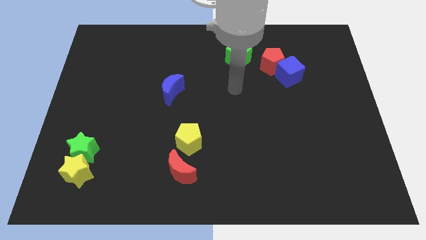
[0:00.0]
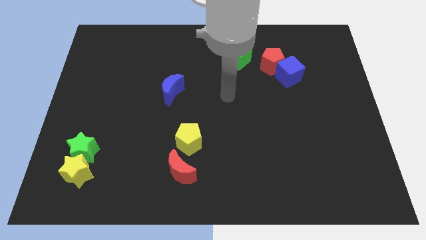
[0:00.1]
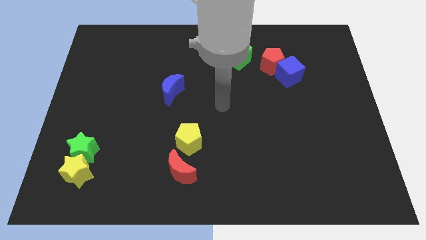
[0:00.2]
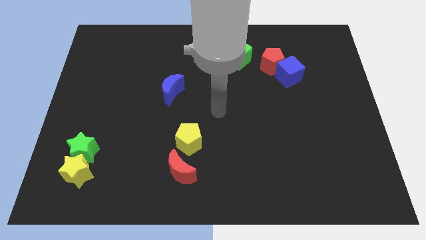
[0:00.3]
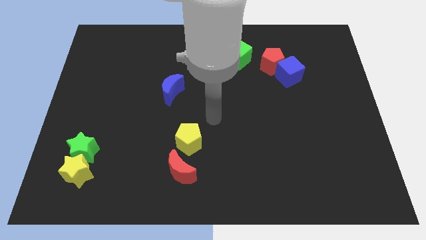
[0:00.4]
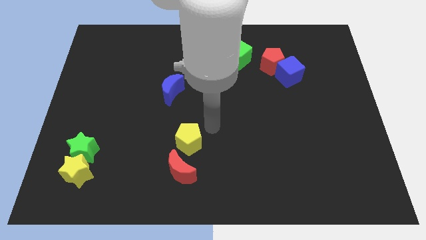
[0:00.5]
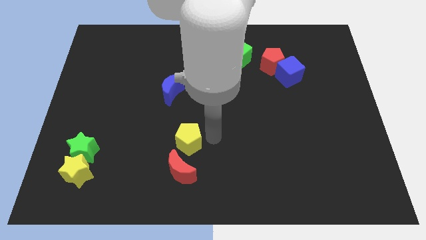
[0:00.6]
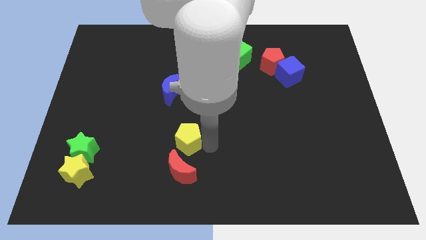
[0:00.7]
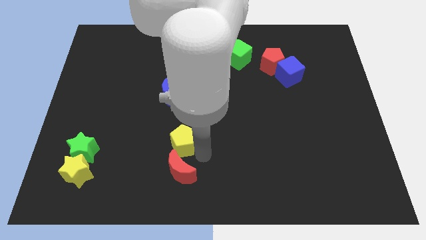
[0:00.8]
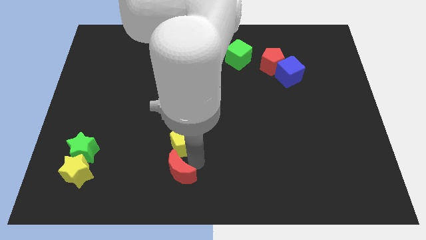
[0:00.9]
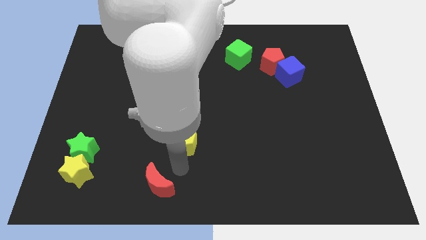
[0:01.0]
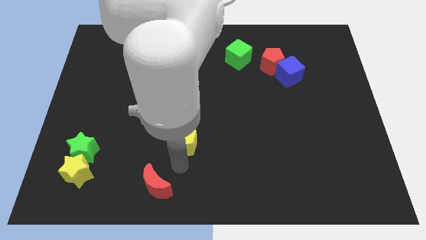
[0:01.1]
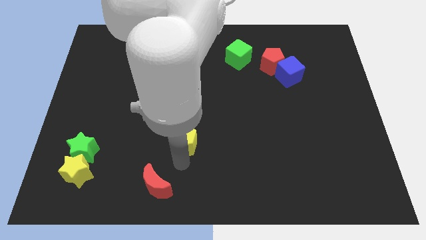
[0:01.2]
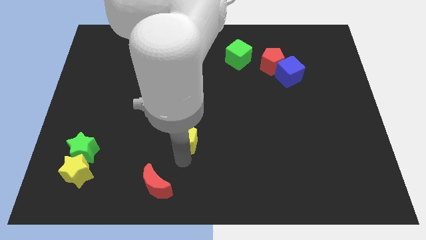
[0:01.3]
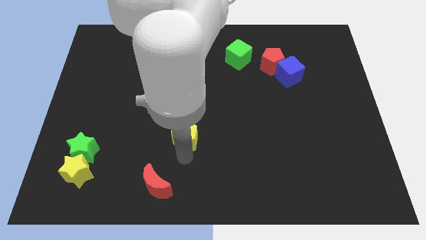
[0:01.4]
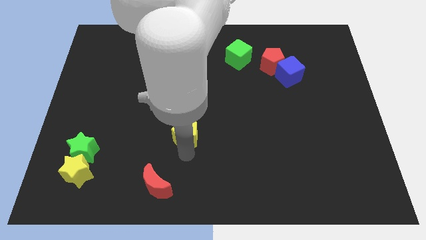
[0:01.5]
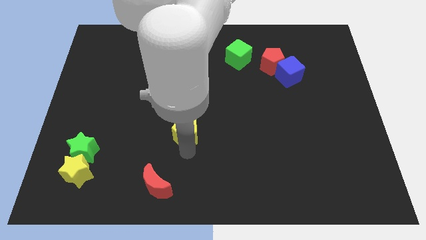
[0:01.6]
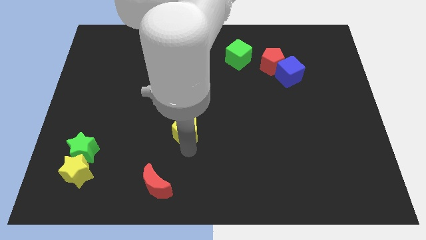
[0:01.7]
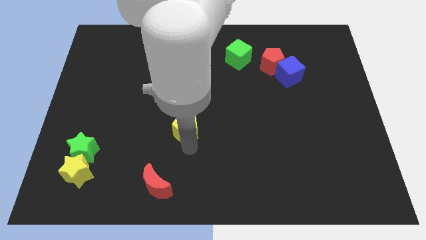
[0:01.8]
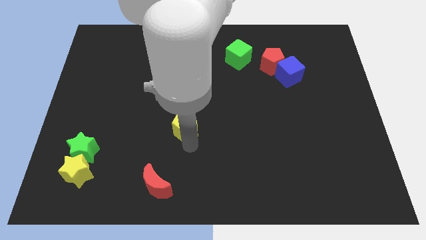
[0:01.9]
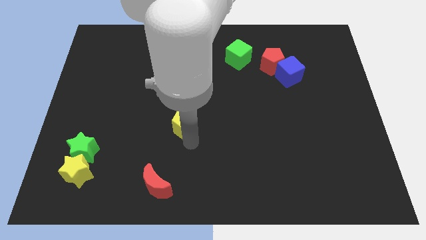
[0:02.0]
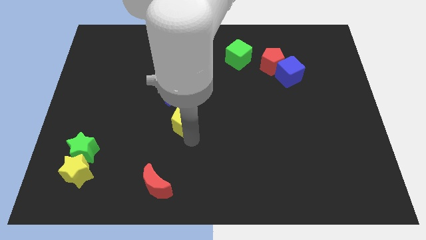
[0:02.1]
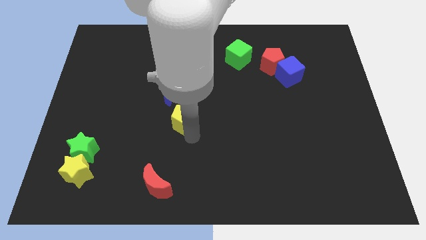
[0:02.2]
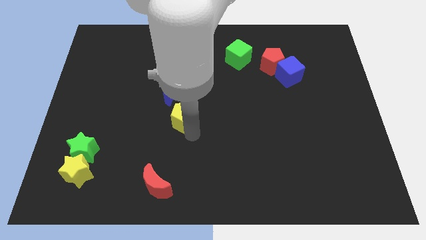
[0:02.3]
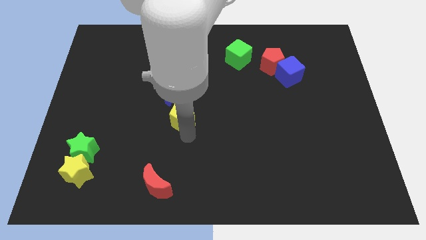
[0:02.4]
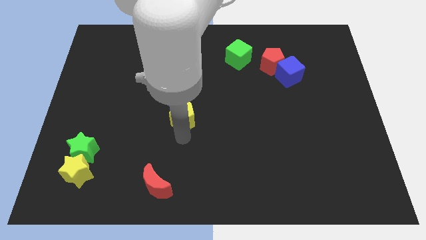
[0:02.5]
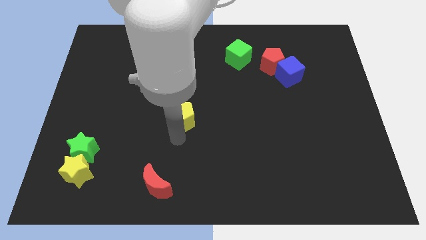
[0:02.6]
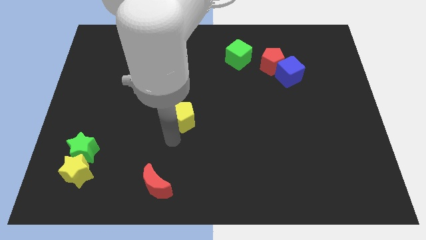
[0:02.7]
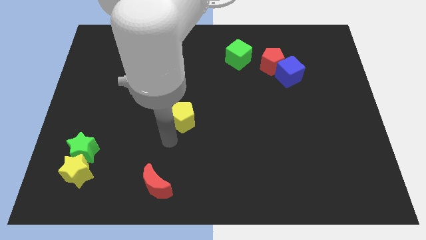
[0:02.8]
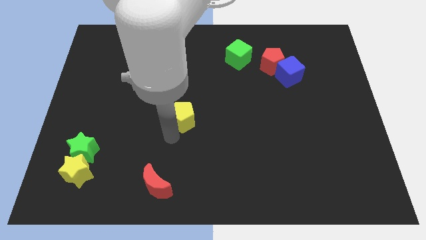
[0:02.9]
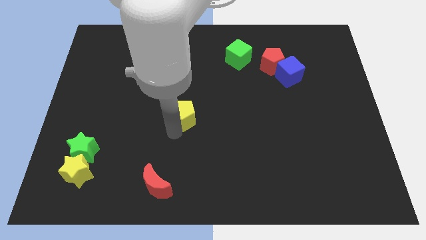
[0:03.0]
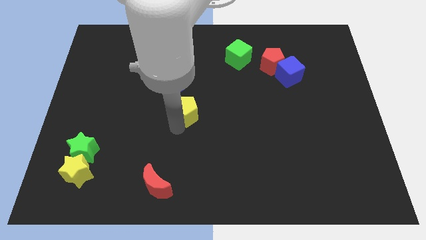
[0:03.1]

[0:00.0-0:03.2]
slightly slide the yellow pentagon upwards

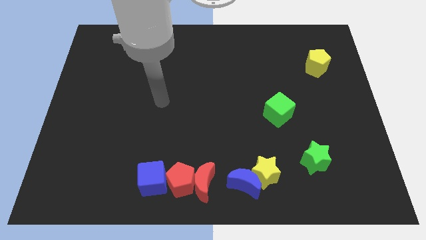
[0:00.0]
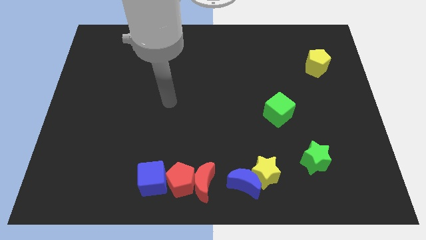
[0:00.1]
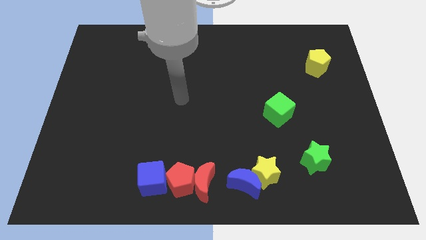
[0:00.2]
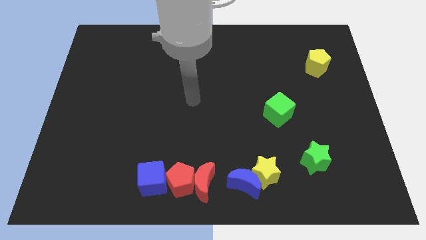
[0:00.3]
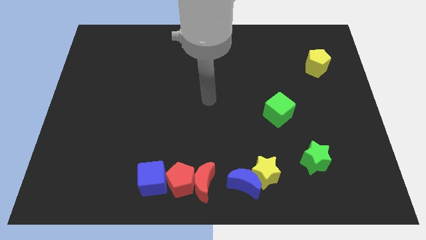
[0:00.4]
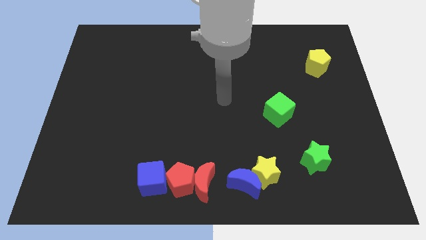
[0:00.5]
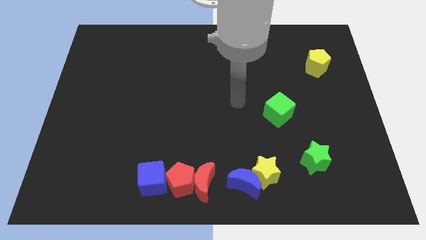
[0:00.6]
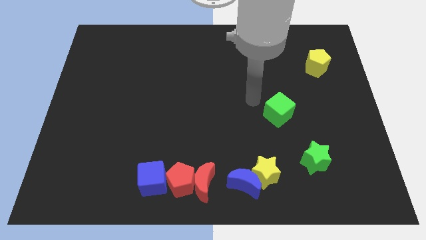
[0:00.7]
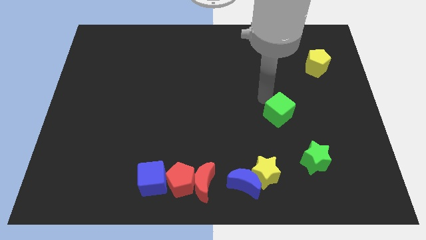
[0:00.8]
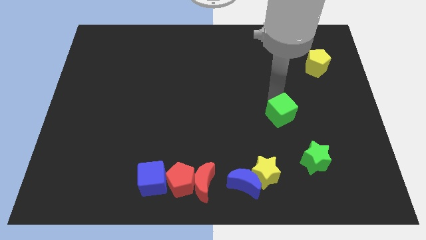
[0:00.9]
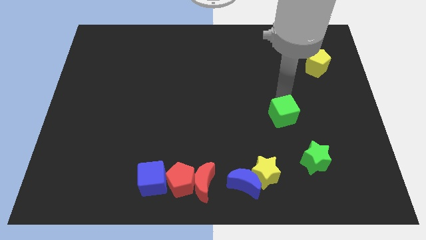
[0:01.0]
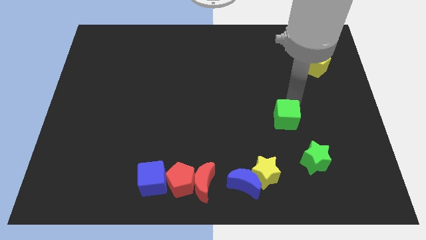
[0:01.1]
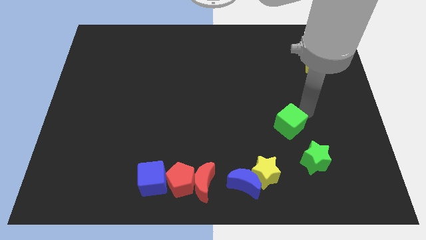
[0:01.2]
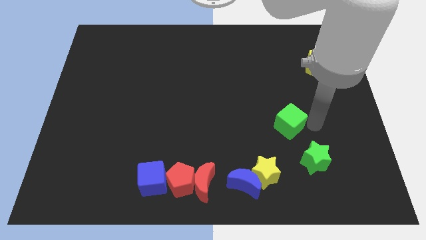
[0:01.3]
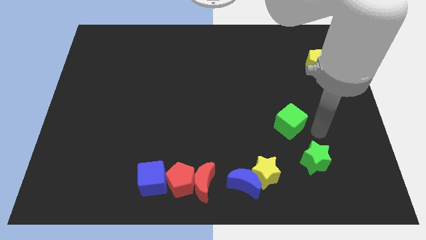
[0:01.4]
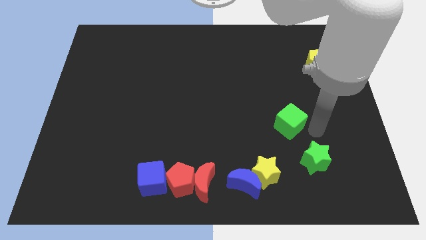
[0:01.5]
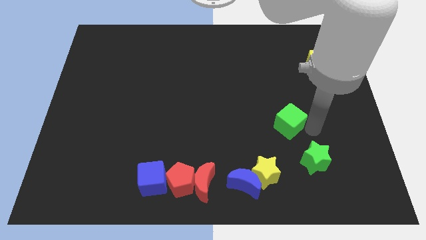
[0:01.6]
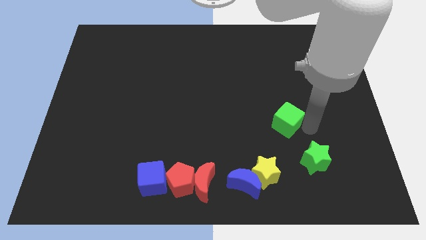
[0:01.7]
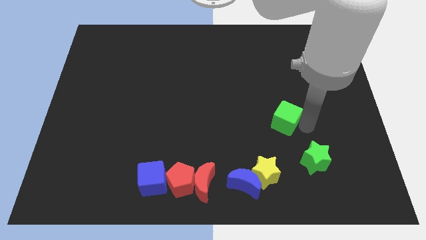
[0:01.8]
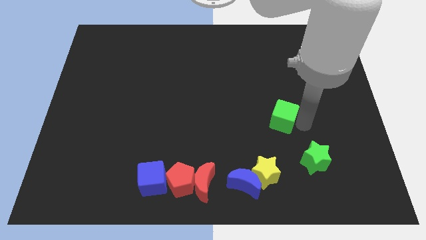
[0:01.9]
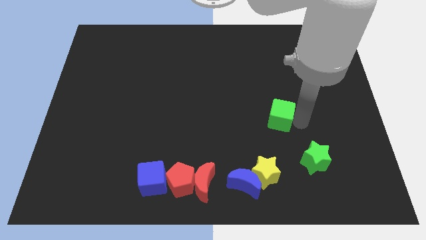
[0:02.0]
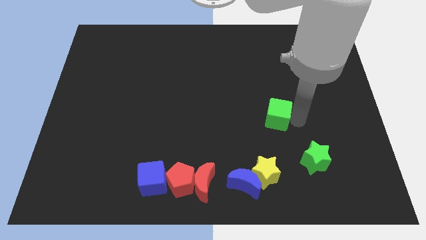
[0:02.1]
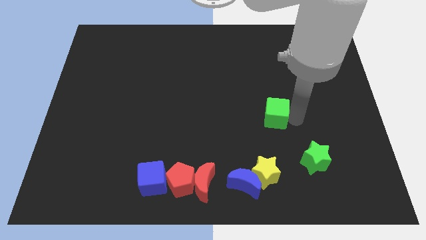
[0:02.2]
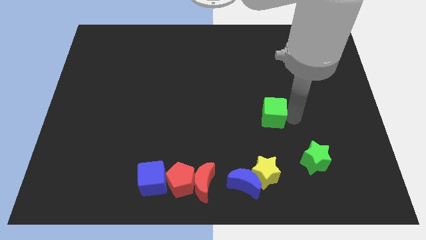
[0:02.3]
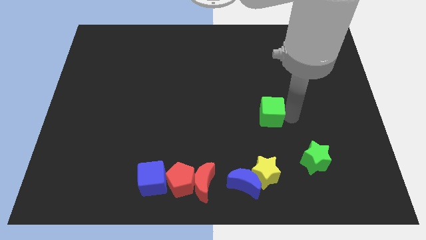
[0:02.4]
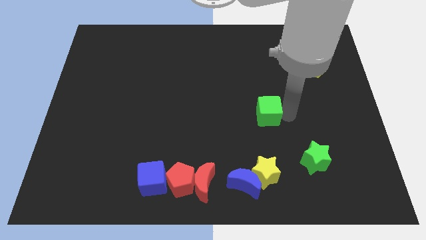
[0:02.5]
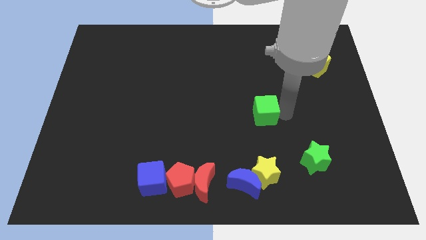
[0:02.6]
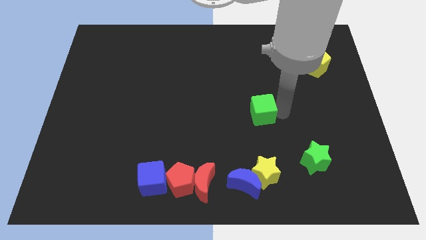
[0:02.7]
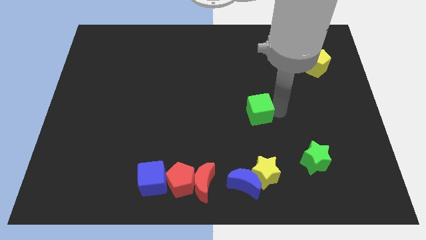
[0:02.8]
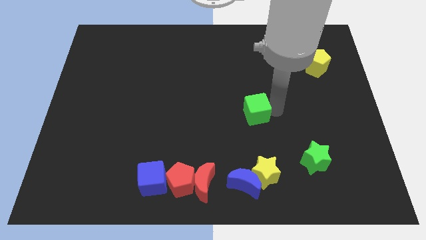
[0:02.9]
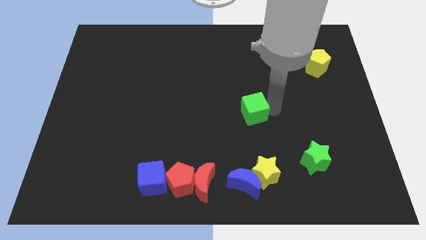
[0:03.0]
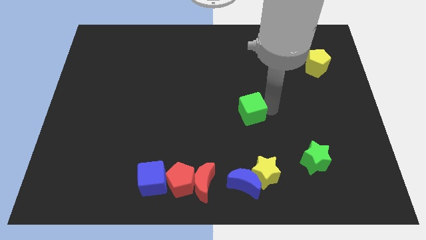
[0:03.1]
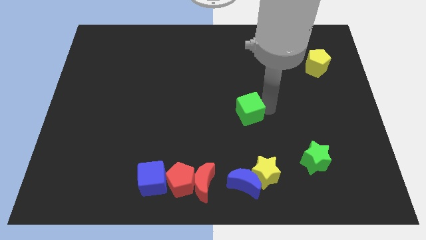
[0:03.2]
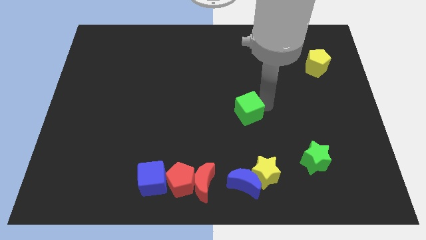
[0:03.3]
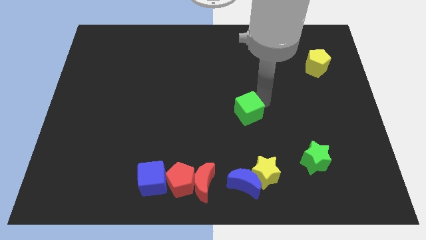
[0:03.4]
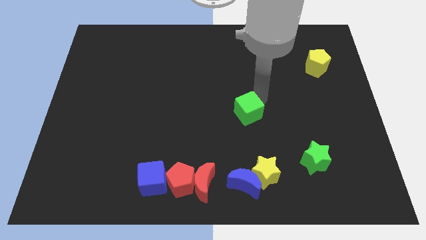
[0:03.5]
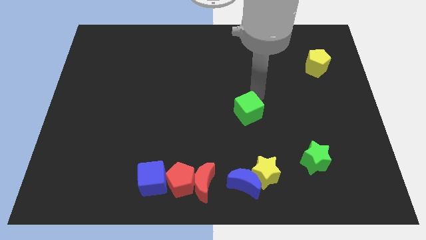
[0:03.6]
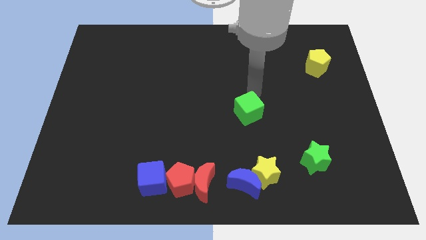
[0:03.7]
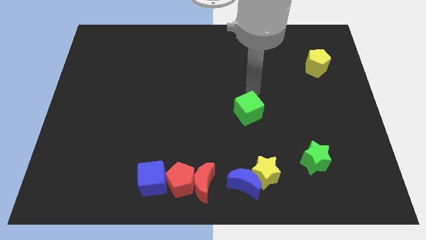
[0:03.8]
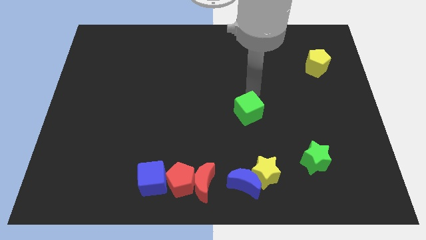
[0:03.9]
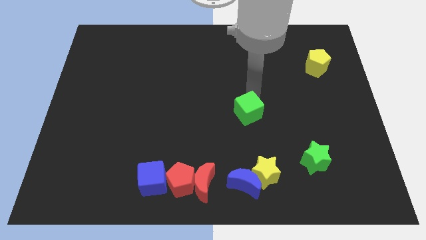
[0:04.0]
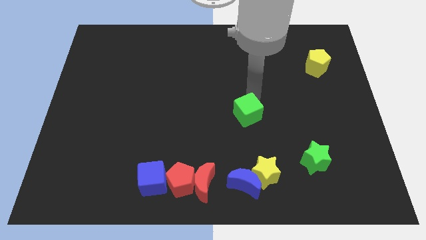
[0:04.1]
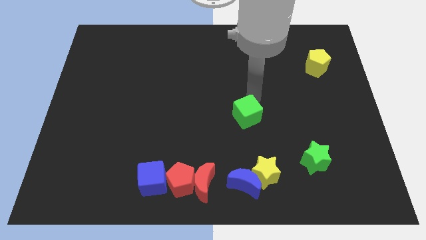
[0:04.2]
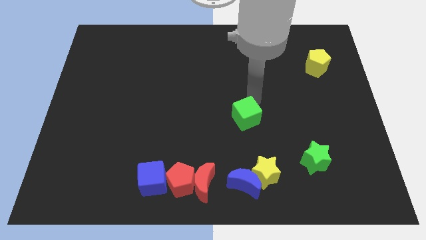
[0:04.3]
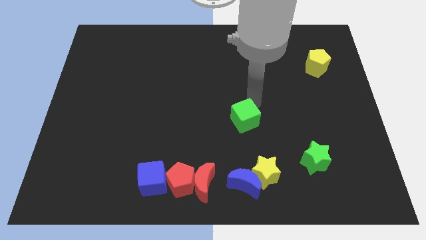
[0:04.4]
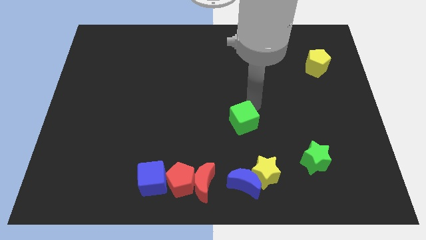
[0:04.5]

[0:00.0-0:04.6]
slightly move the green cube diagonally down and left
